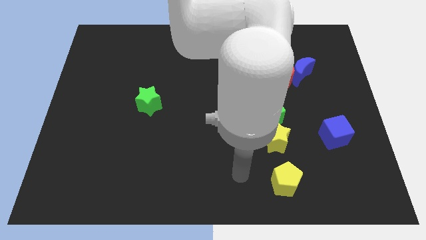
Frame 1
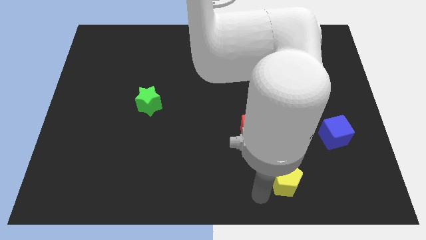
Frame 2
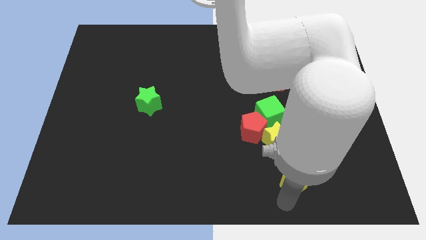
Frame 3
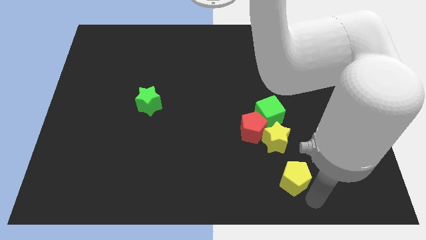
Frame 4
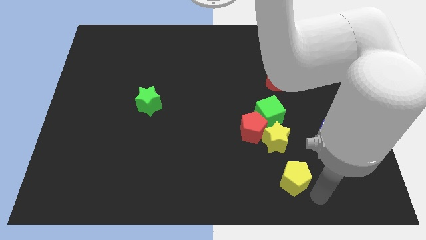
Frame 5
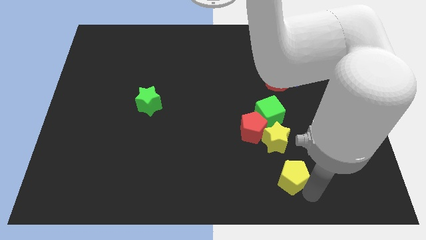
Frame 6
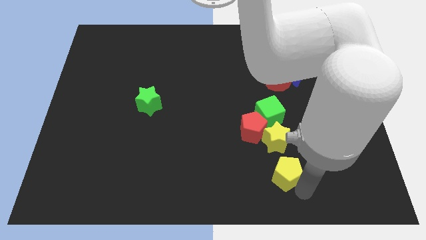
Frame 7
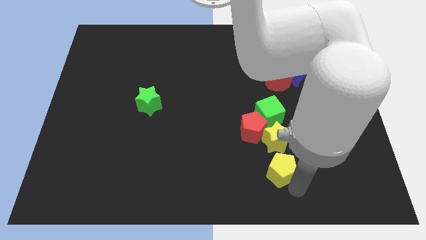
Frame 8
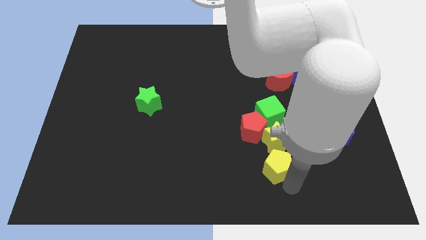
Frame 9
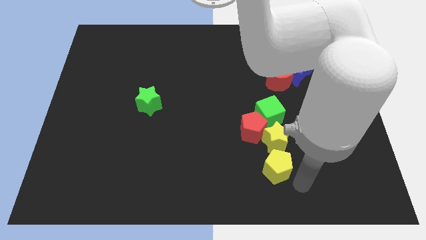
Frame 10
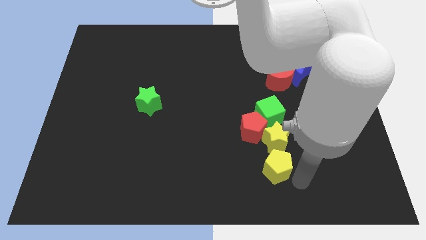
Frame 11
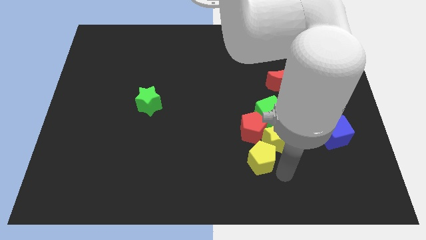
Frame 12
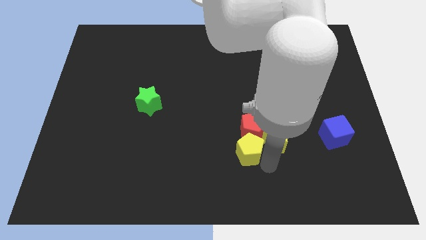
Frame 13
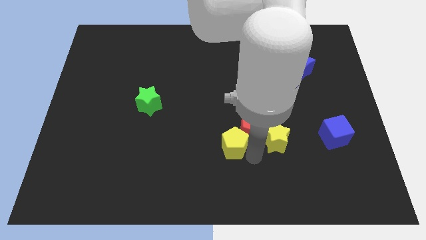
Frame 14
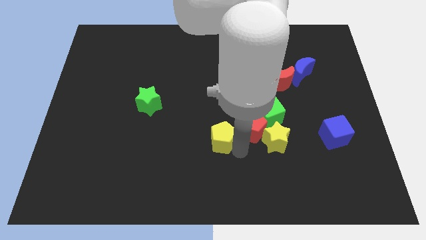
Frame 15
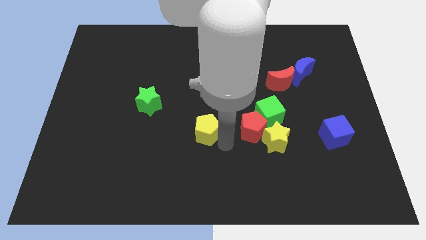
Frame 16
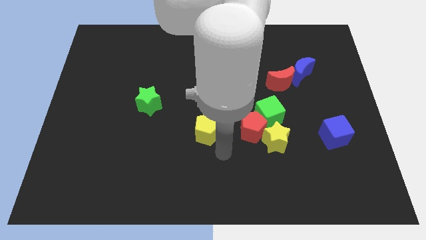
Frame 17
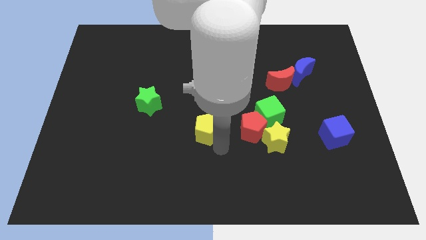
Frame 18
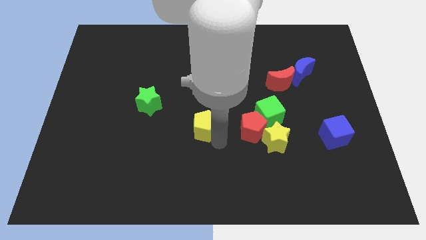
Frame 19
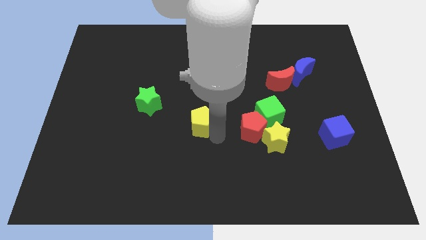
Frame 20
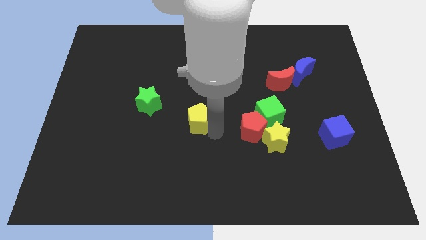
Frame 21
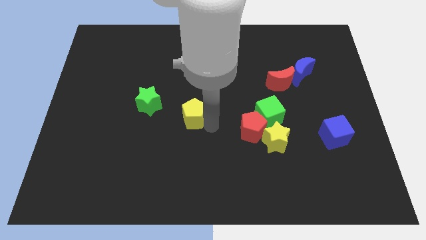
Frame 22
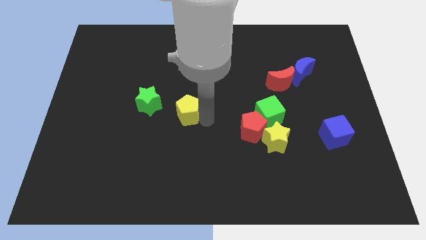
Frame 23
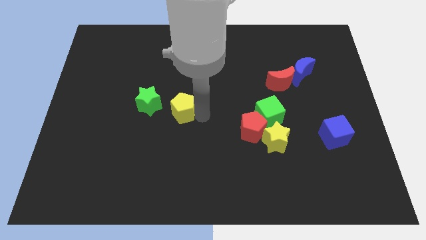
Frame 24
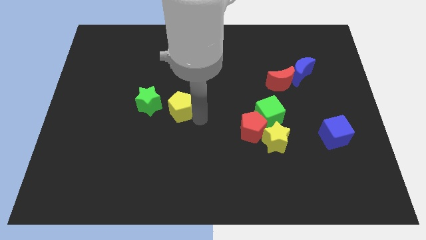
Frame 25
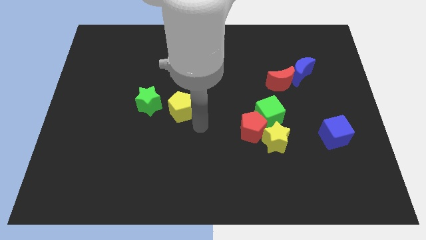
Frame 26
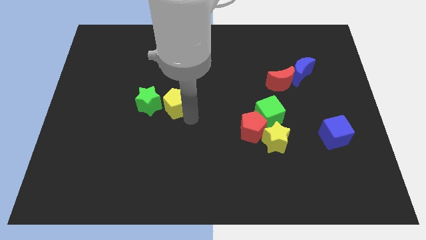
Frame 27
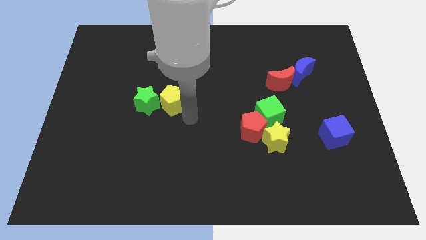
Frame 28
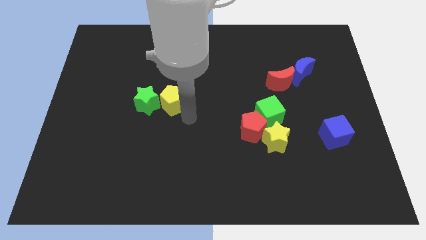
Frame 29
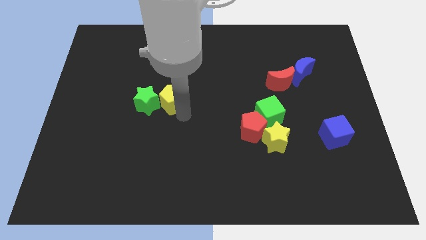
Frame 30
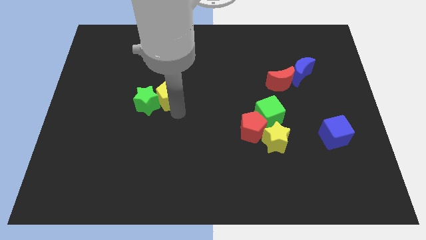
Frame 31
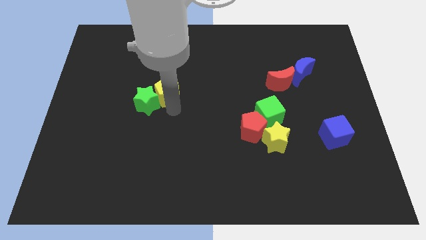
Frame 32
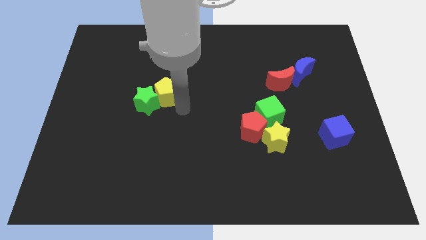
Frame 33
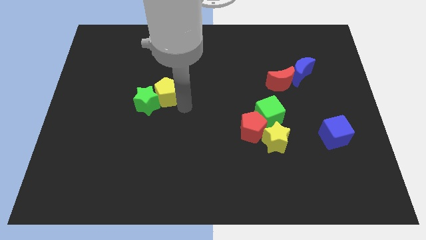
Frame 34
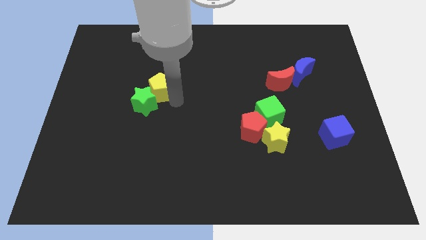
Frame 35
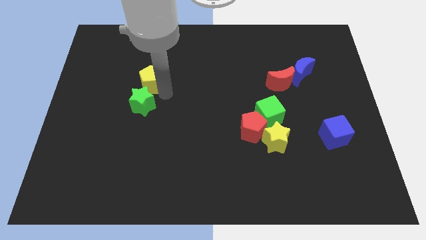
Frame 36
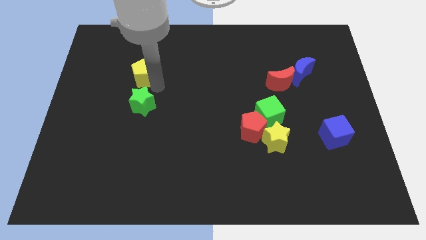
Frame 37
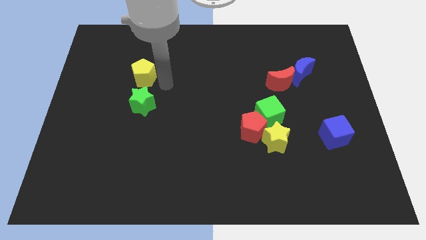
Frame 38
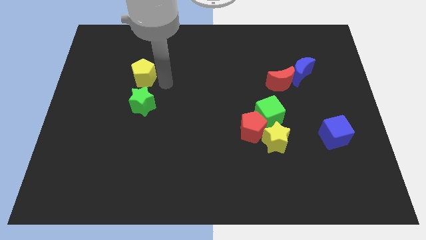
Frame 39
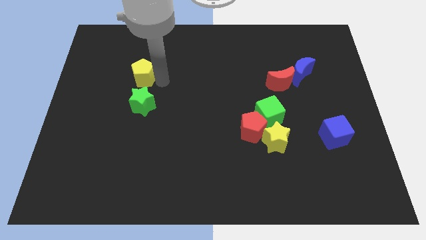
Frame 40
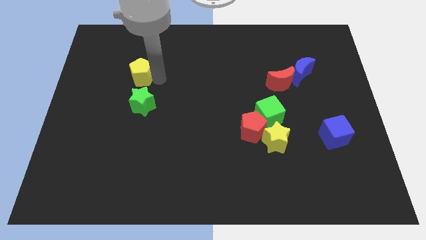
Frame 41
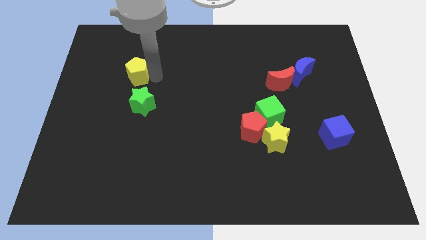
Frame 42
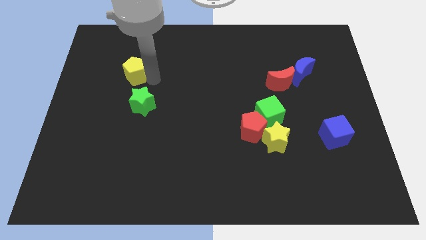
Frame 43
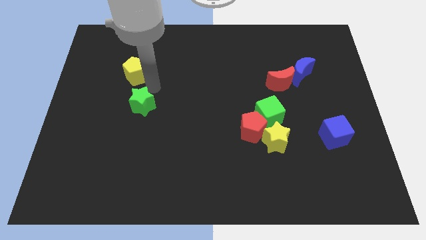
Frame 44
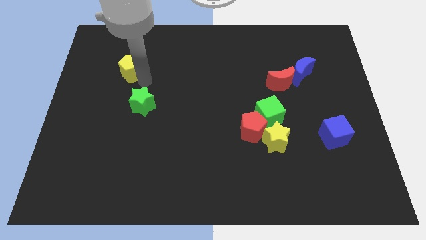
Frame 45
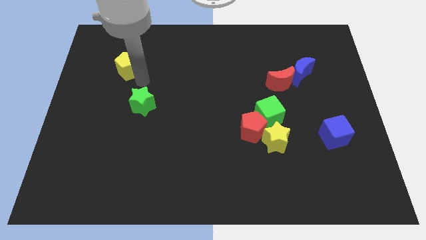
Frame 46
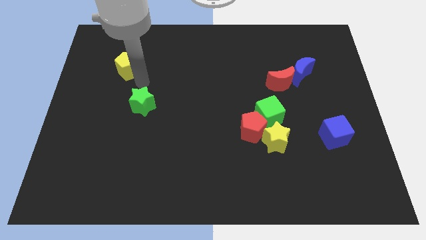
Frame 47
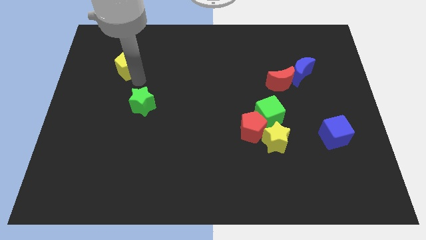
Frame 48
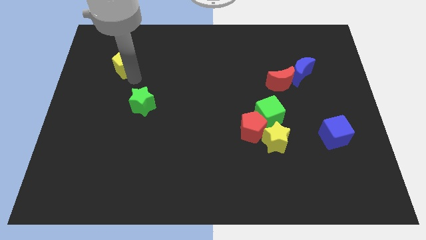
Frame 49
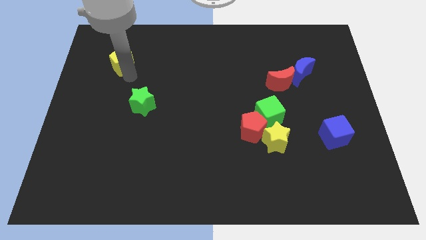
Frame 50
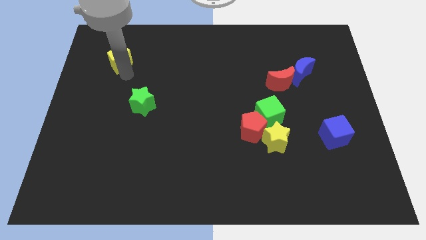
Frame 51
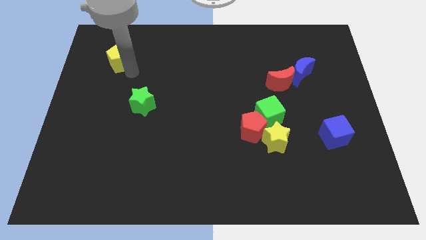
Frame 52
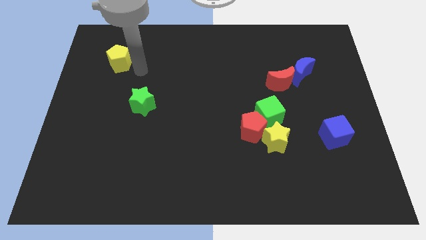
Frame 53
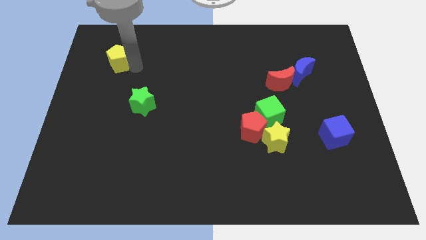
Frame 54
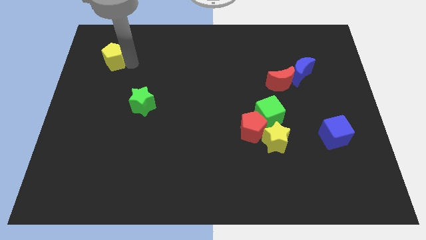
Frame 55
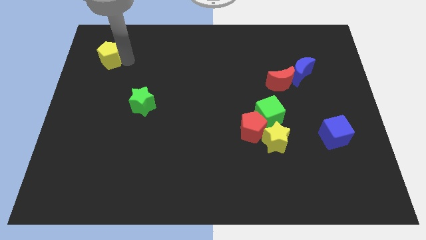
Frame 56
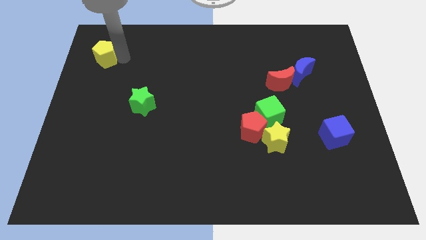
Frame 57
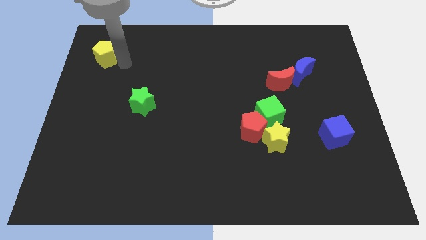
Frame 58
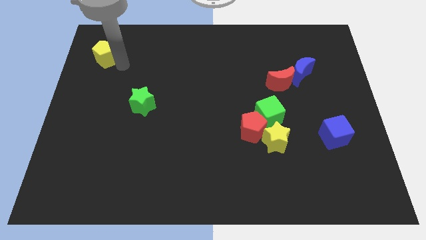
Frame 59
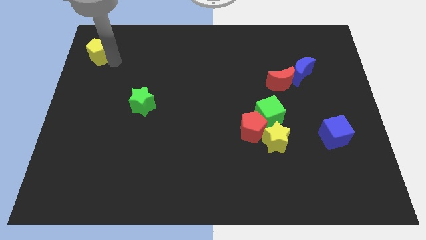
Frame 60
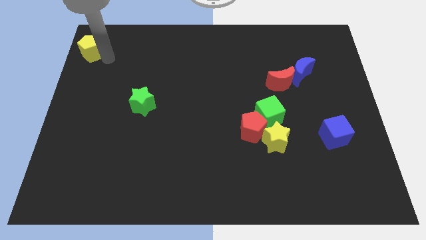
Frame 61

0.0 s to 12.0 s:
push the yellow pentagon to the top left of the board
